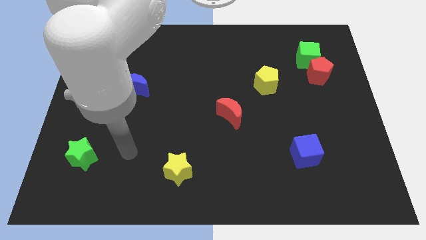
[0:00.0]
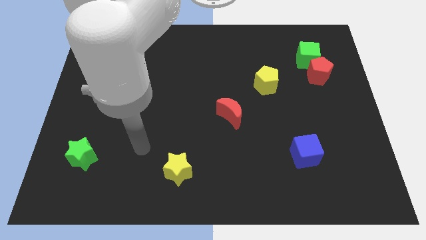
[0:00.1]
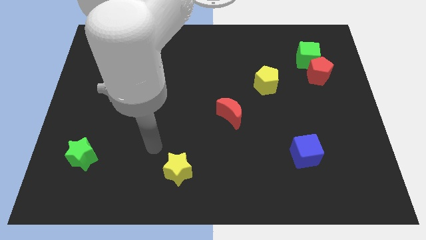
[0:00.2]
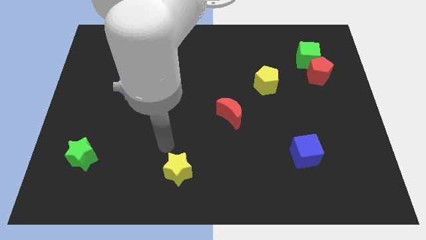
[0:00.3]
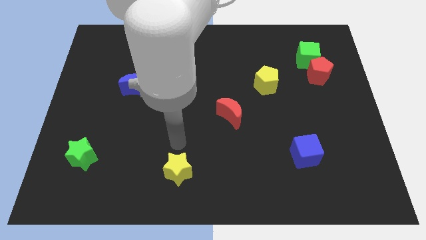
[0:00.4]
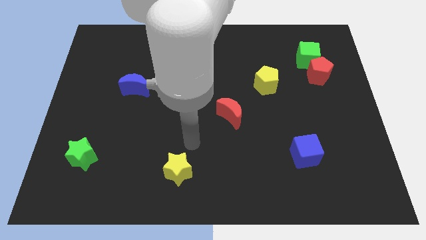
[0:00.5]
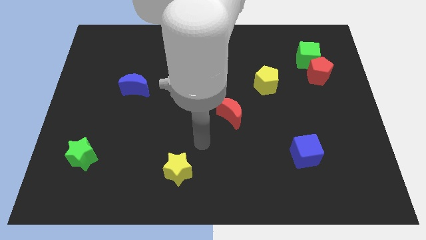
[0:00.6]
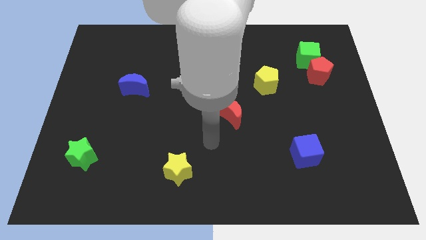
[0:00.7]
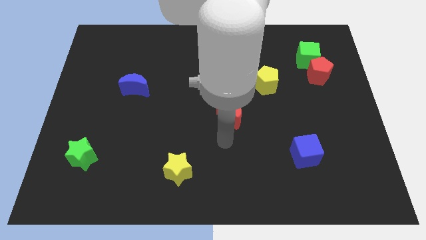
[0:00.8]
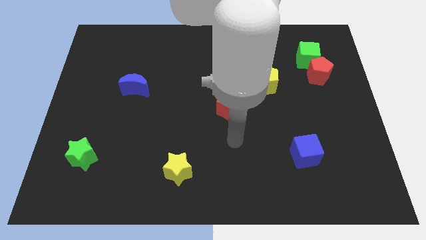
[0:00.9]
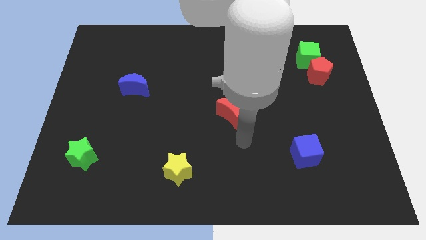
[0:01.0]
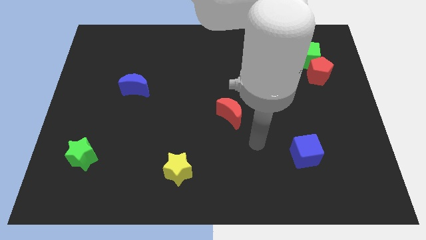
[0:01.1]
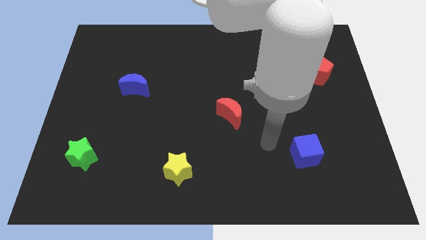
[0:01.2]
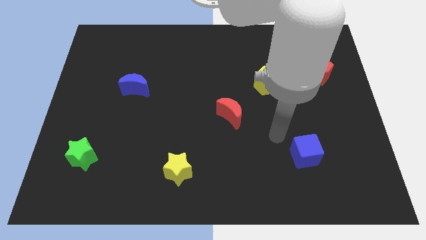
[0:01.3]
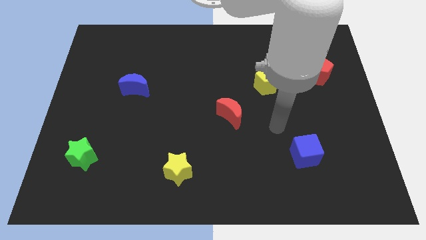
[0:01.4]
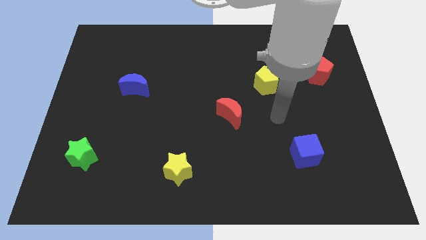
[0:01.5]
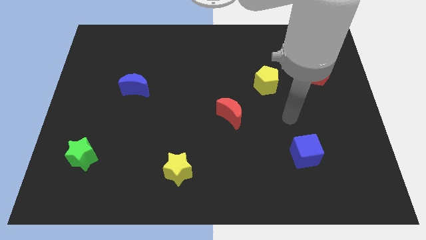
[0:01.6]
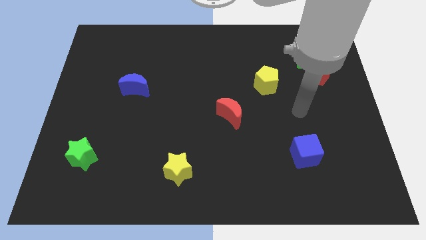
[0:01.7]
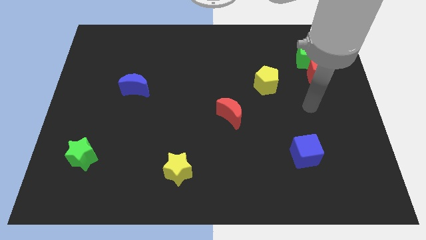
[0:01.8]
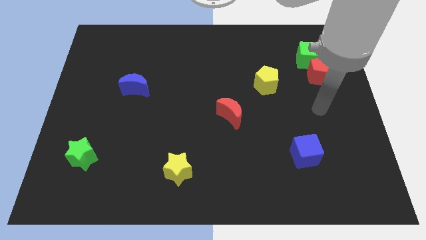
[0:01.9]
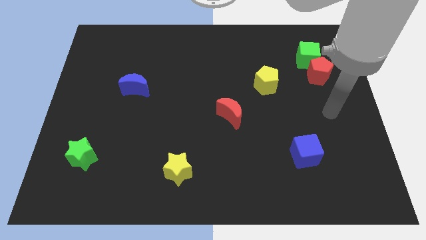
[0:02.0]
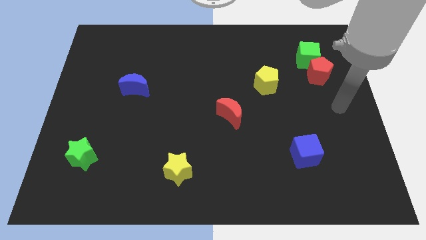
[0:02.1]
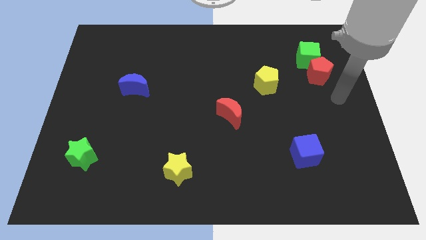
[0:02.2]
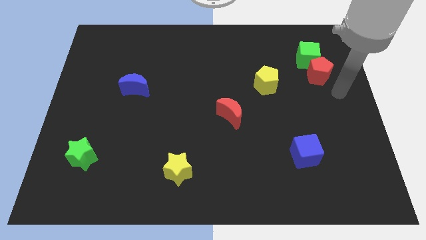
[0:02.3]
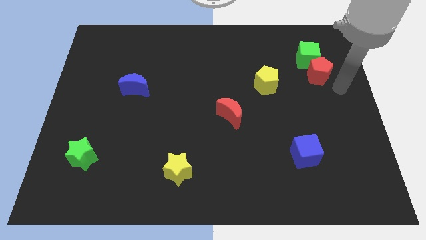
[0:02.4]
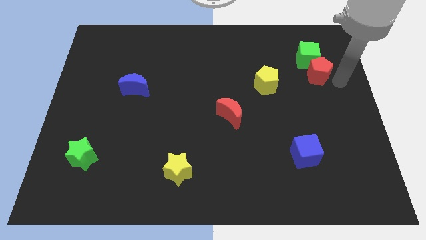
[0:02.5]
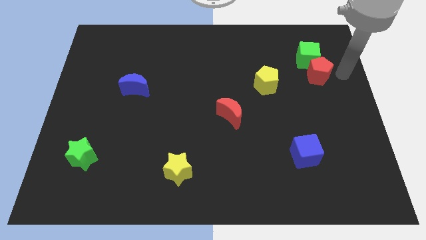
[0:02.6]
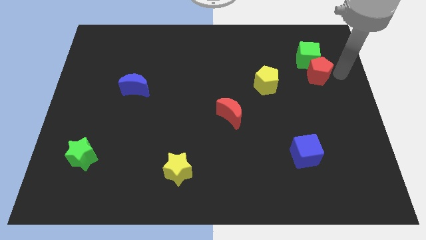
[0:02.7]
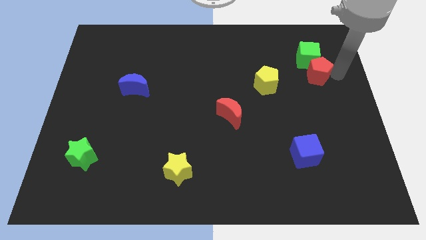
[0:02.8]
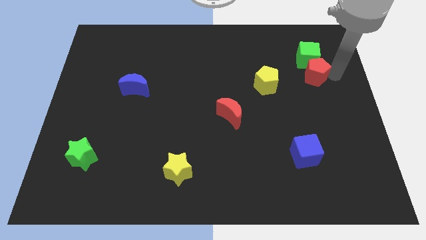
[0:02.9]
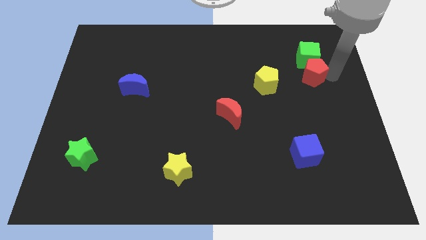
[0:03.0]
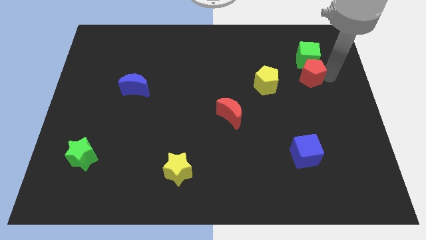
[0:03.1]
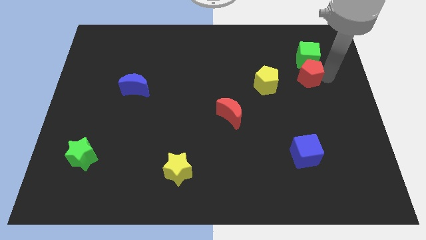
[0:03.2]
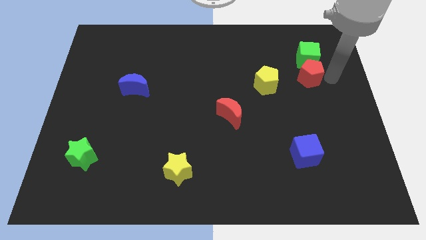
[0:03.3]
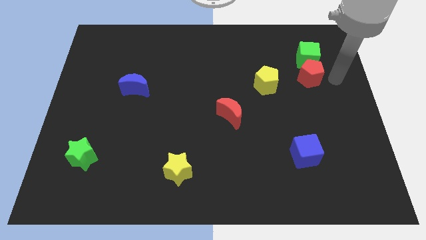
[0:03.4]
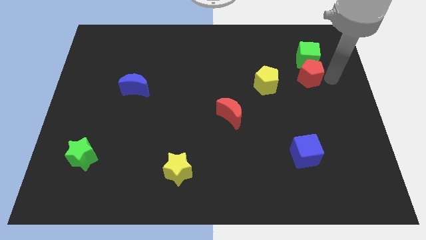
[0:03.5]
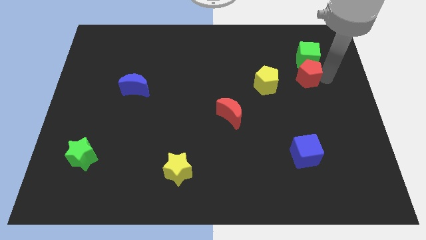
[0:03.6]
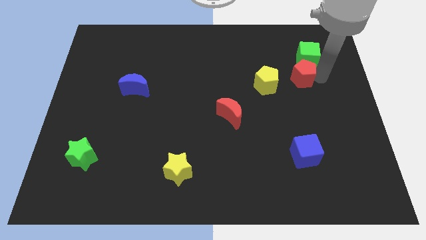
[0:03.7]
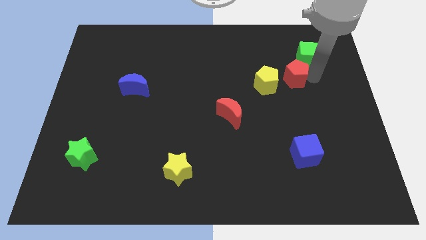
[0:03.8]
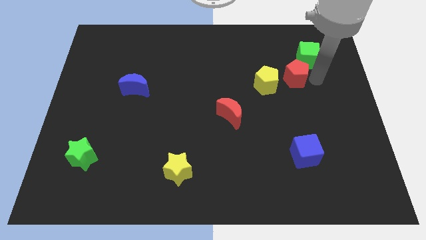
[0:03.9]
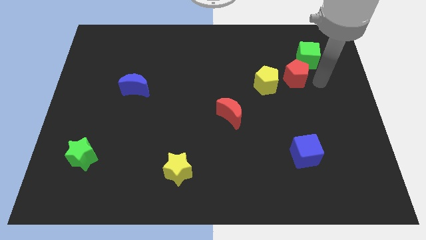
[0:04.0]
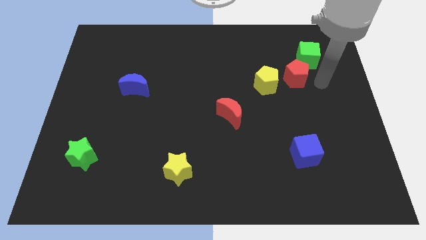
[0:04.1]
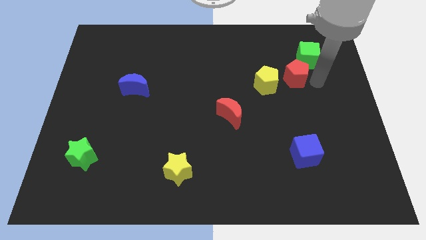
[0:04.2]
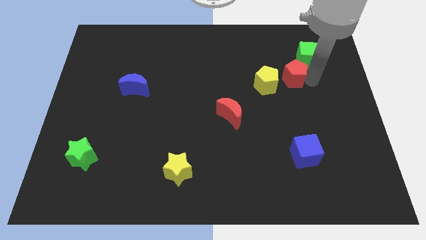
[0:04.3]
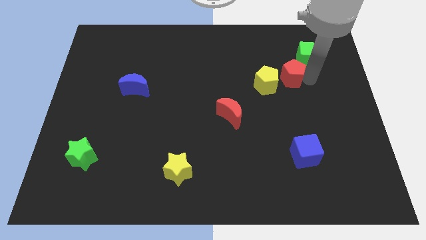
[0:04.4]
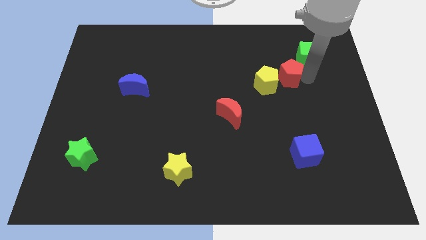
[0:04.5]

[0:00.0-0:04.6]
move the red pentagon a little bit left

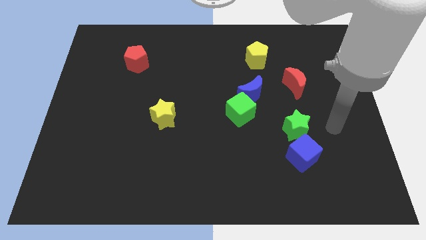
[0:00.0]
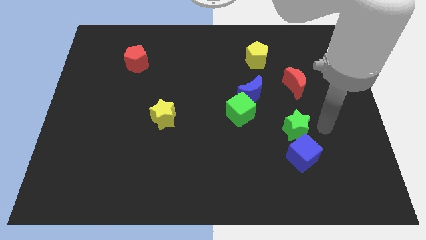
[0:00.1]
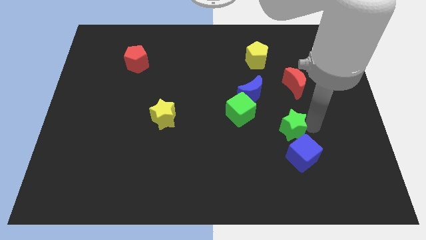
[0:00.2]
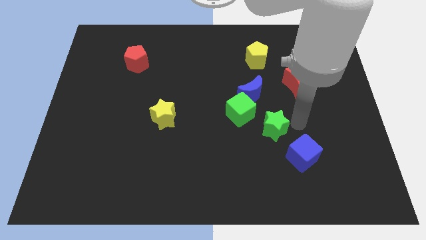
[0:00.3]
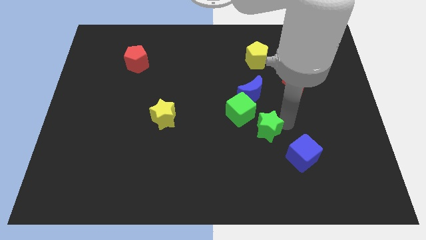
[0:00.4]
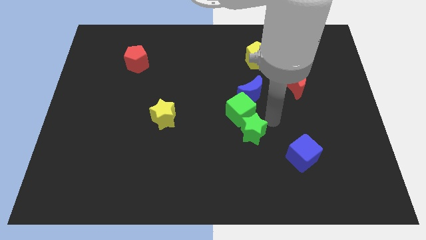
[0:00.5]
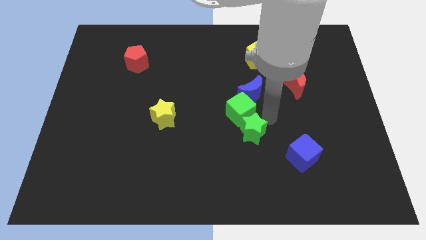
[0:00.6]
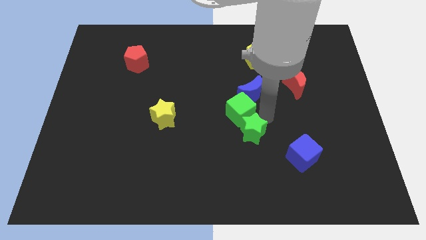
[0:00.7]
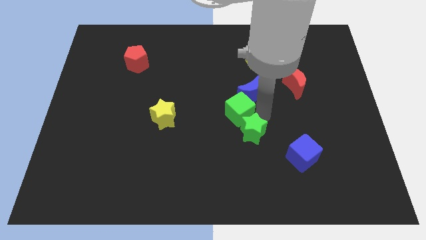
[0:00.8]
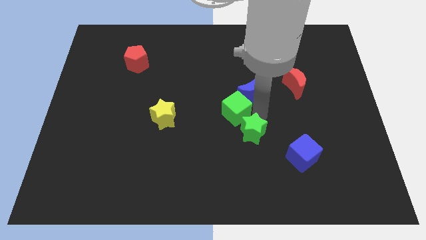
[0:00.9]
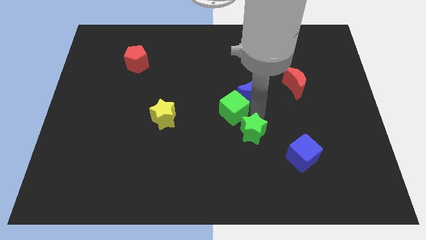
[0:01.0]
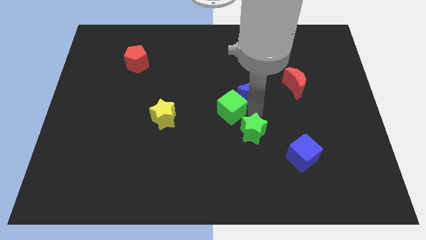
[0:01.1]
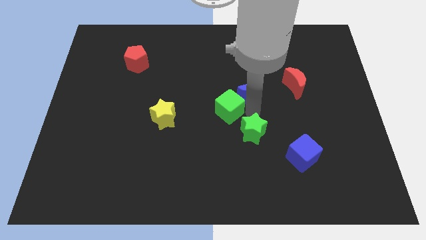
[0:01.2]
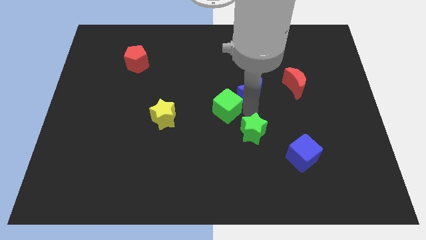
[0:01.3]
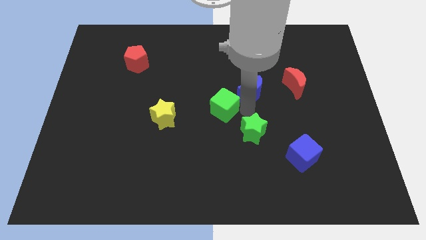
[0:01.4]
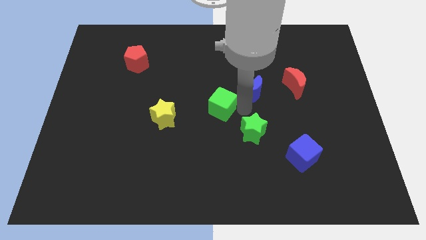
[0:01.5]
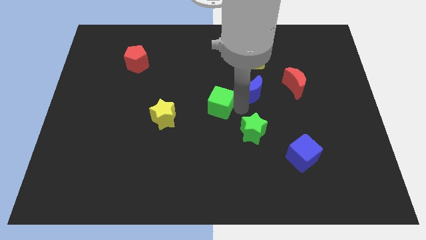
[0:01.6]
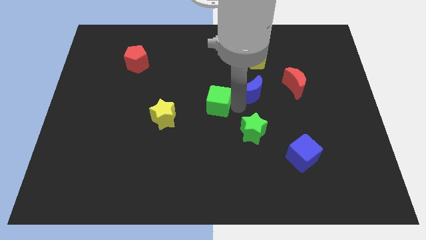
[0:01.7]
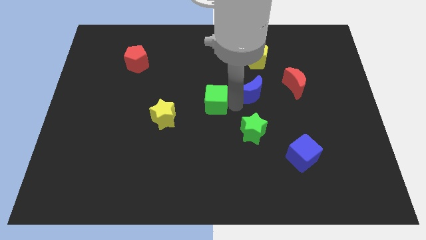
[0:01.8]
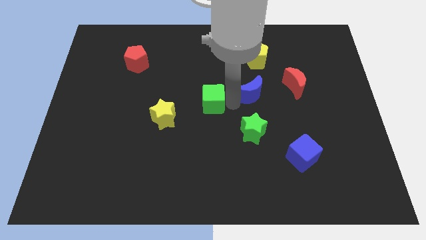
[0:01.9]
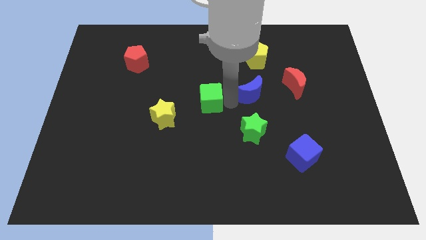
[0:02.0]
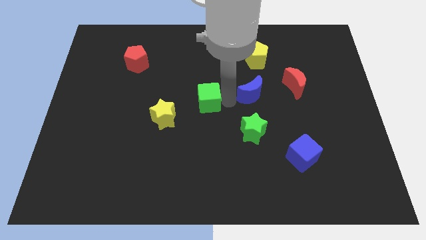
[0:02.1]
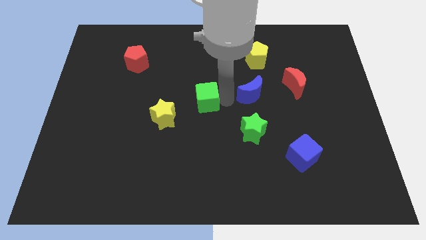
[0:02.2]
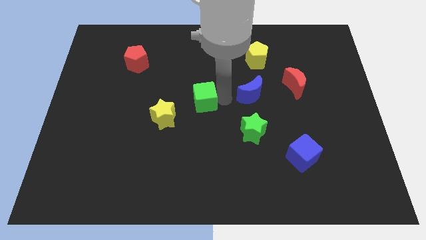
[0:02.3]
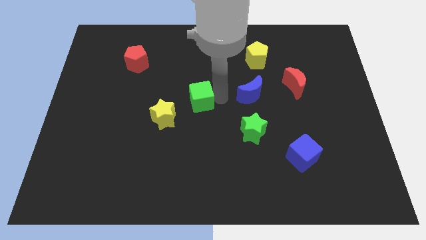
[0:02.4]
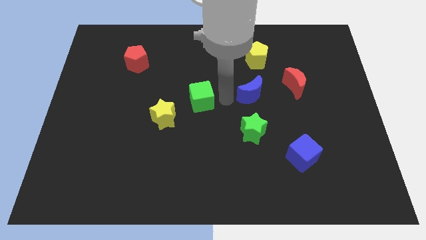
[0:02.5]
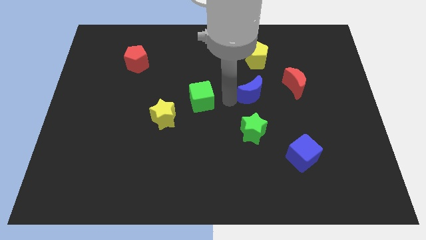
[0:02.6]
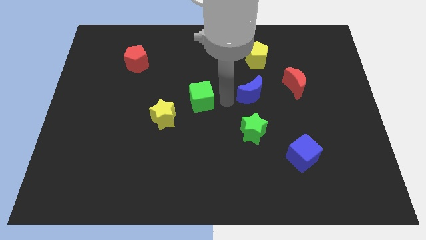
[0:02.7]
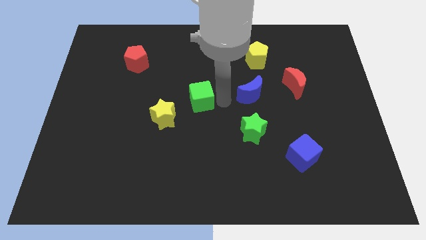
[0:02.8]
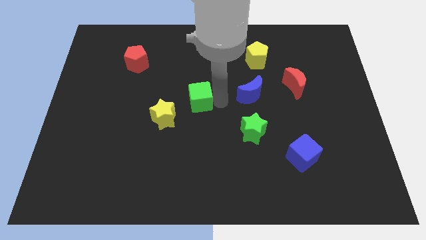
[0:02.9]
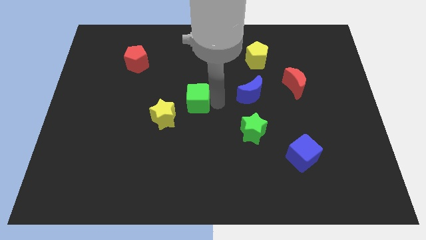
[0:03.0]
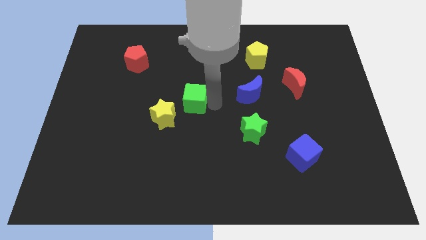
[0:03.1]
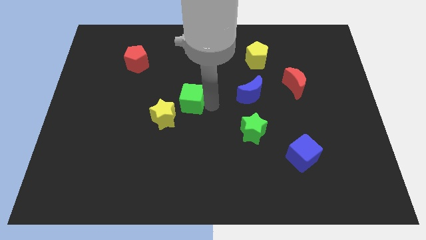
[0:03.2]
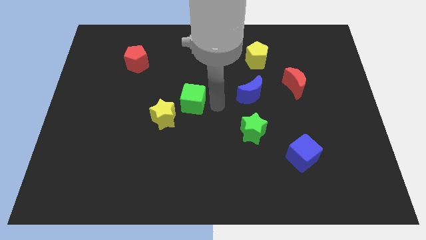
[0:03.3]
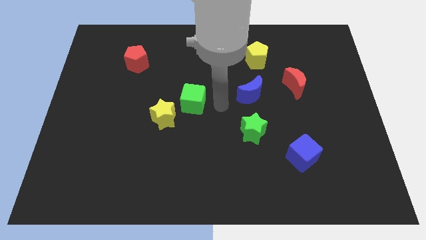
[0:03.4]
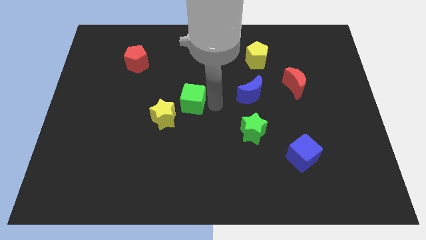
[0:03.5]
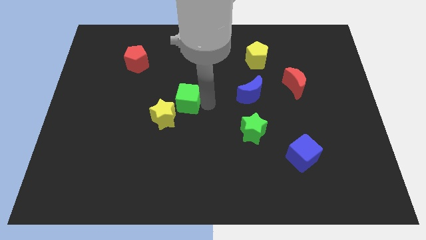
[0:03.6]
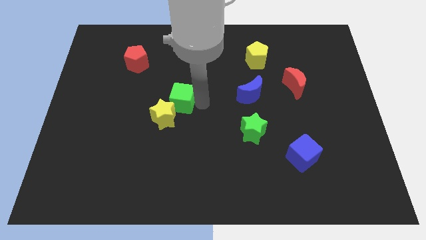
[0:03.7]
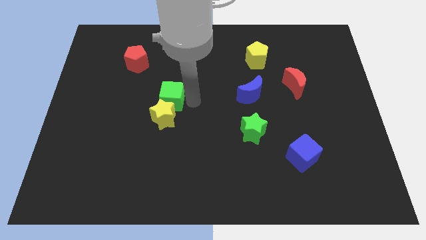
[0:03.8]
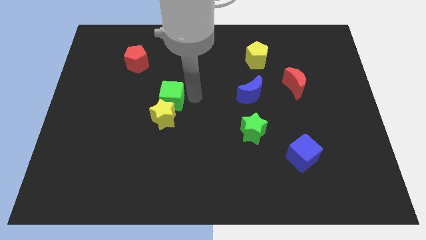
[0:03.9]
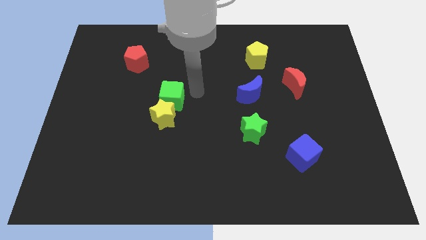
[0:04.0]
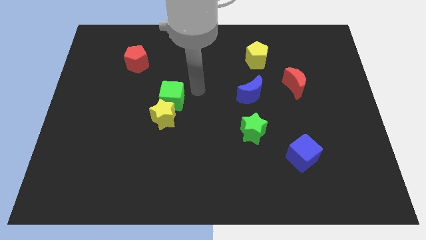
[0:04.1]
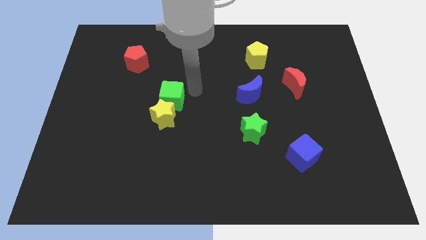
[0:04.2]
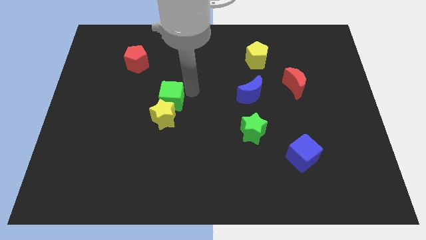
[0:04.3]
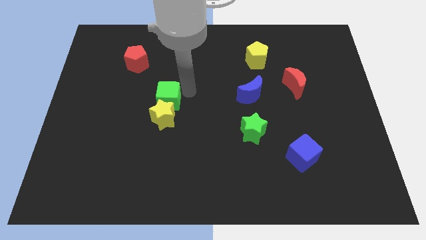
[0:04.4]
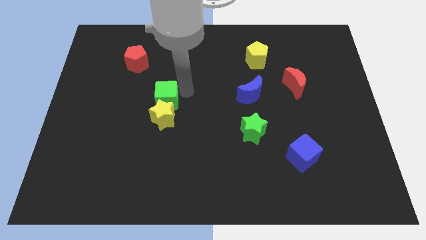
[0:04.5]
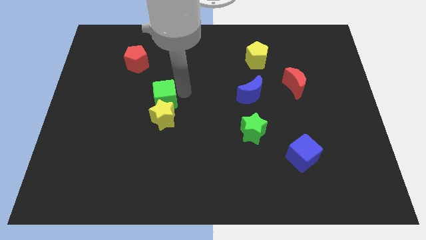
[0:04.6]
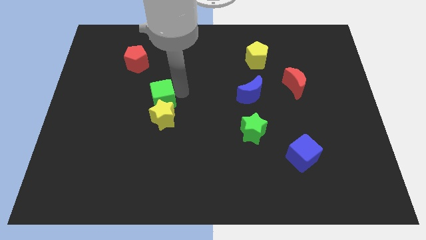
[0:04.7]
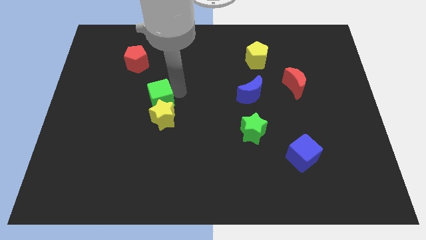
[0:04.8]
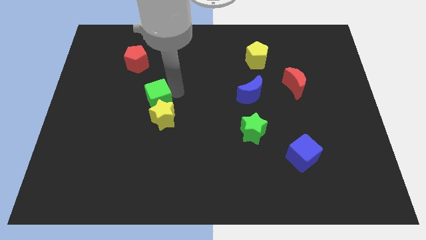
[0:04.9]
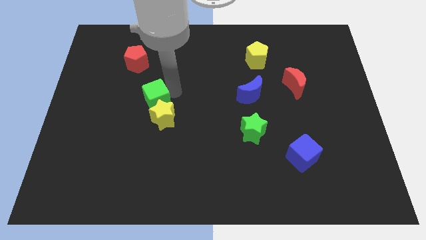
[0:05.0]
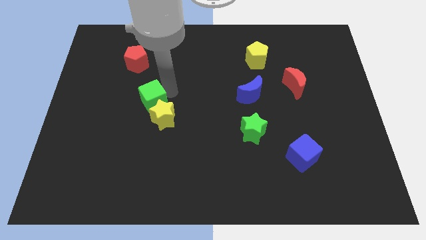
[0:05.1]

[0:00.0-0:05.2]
slide the green cube left
